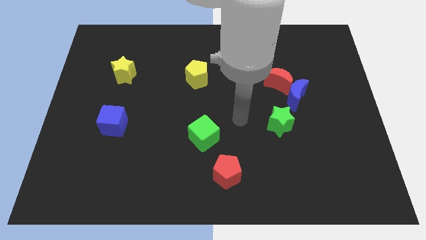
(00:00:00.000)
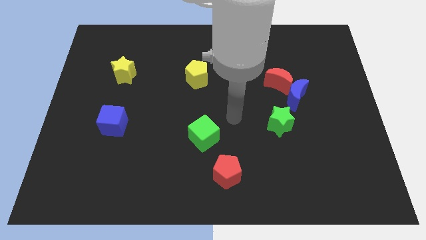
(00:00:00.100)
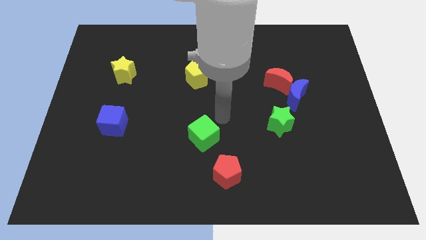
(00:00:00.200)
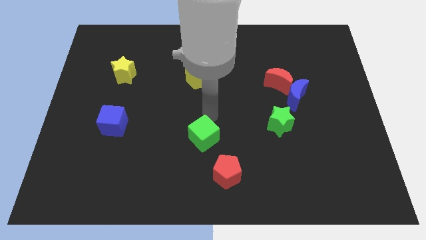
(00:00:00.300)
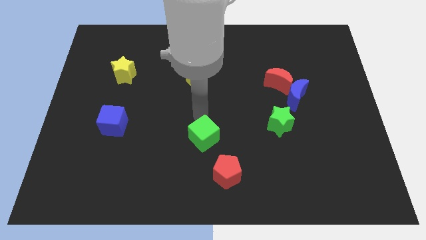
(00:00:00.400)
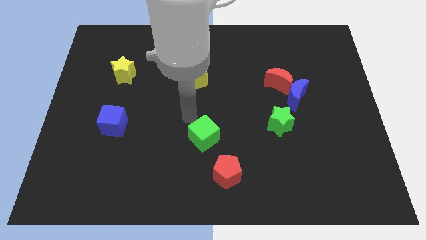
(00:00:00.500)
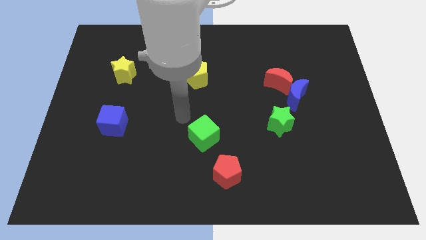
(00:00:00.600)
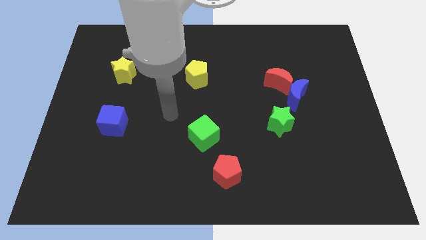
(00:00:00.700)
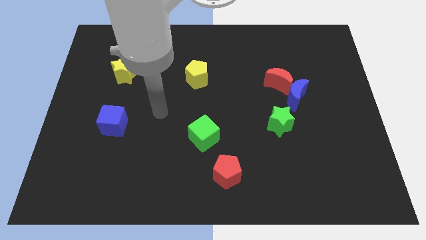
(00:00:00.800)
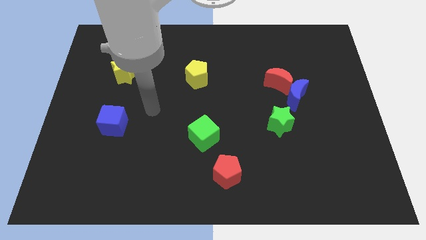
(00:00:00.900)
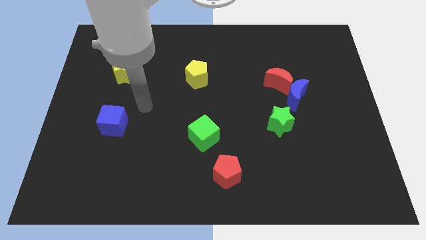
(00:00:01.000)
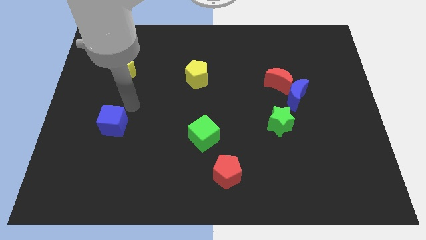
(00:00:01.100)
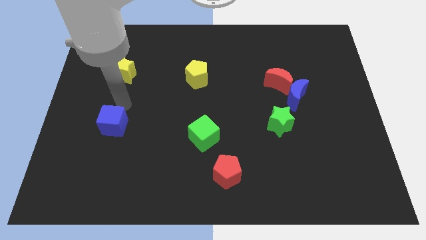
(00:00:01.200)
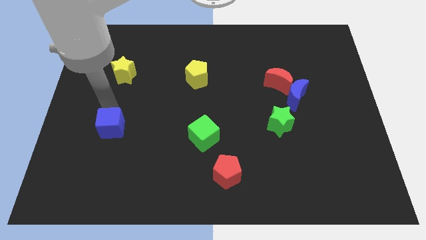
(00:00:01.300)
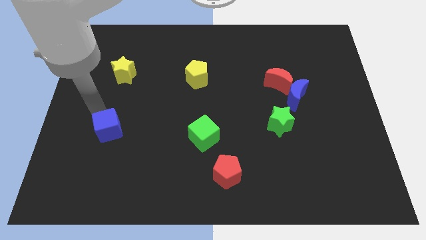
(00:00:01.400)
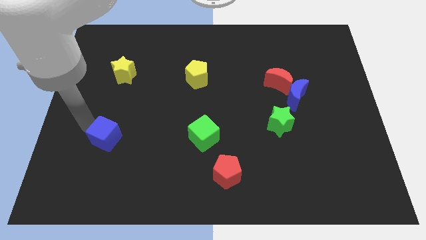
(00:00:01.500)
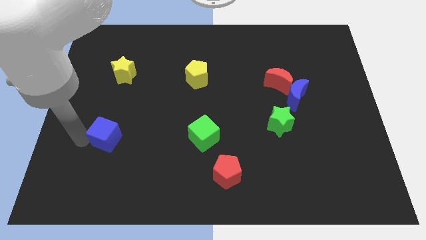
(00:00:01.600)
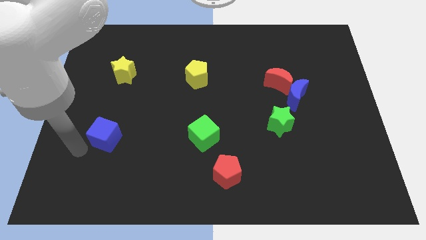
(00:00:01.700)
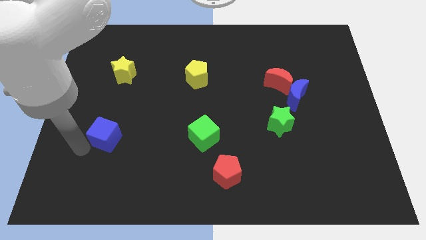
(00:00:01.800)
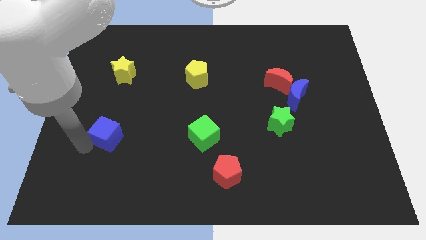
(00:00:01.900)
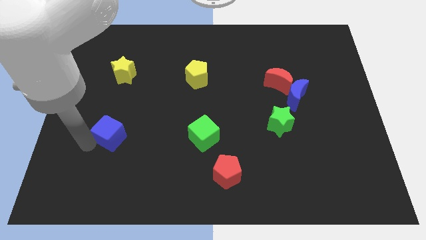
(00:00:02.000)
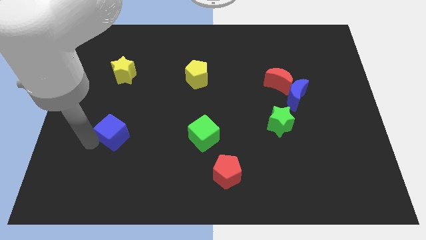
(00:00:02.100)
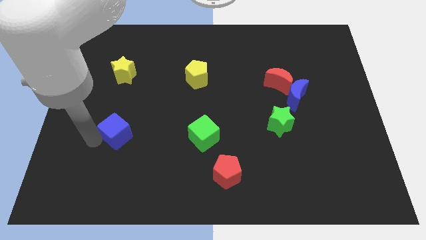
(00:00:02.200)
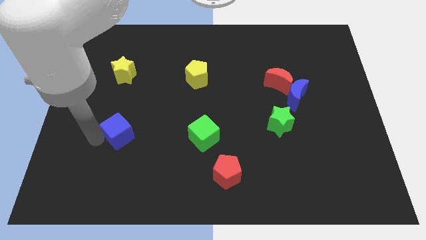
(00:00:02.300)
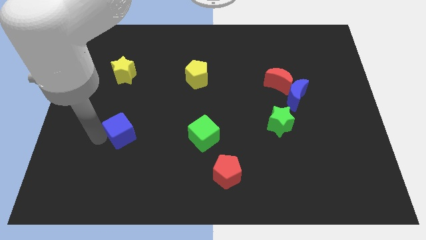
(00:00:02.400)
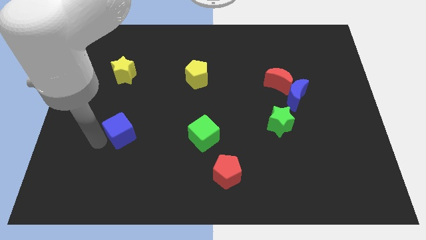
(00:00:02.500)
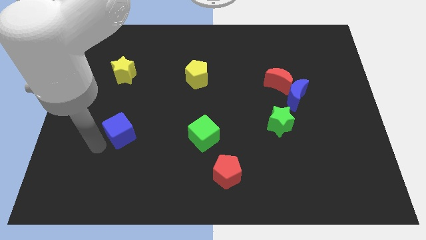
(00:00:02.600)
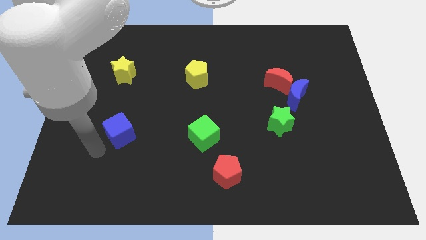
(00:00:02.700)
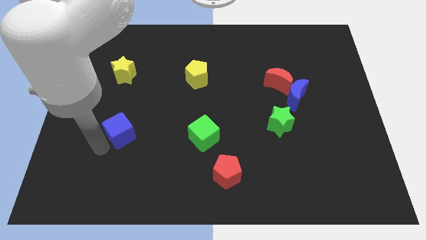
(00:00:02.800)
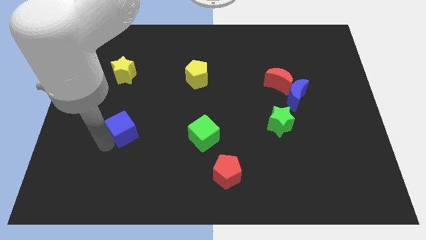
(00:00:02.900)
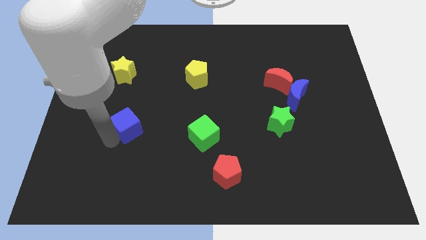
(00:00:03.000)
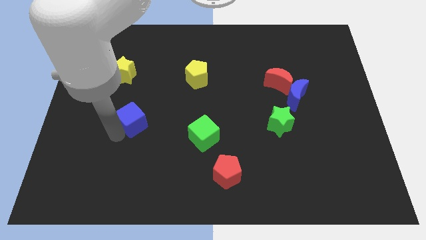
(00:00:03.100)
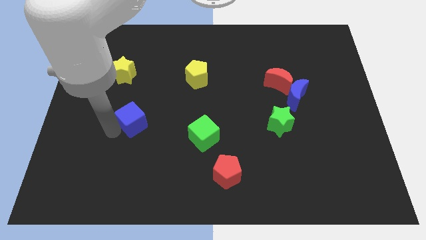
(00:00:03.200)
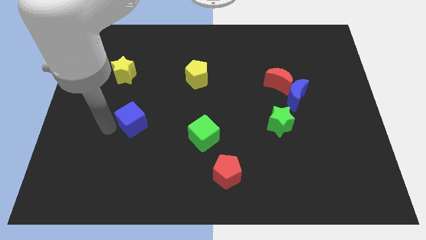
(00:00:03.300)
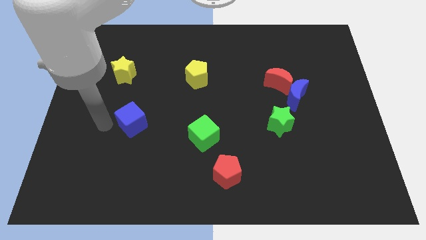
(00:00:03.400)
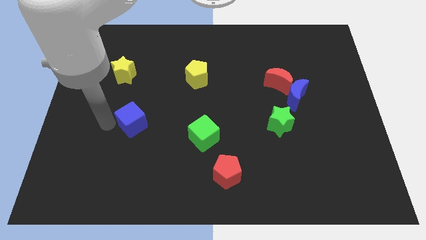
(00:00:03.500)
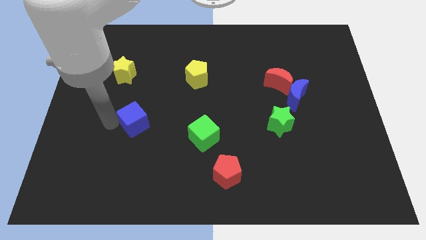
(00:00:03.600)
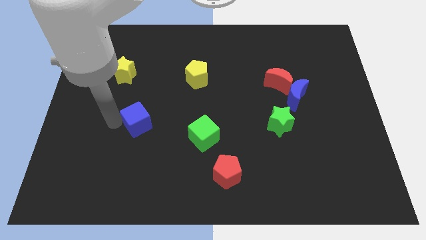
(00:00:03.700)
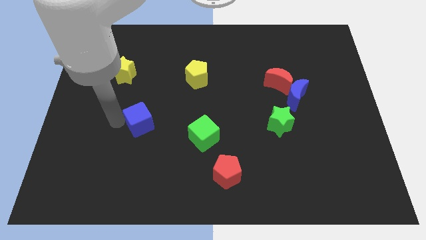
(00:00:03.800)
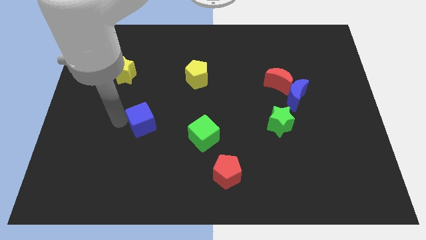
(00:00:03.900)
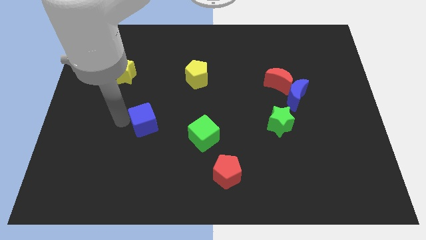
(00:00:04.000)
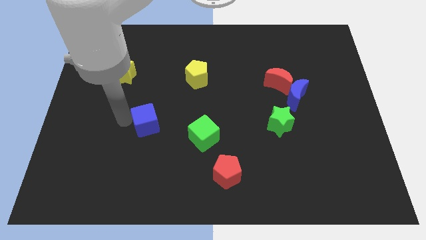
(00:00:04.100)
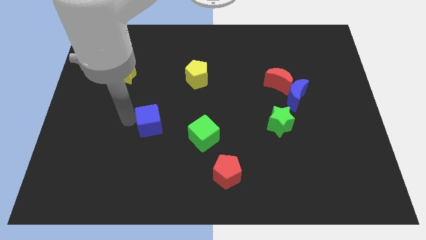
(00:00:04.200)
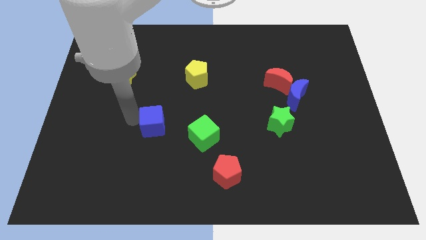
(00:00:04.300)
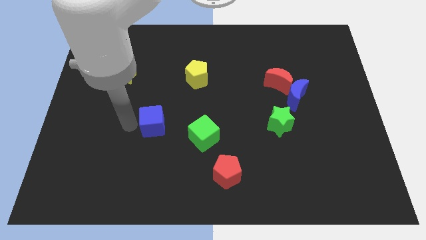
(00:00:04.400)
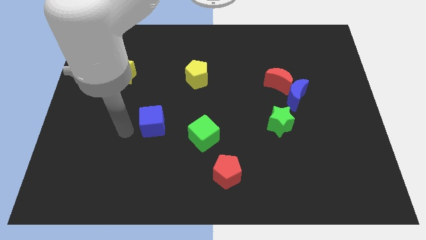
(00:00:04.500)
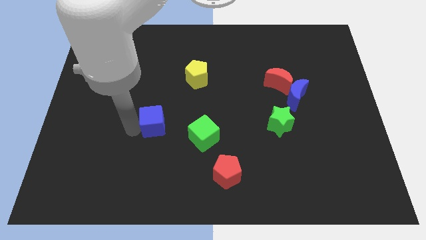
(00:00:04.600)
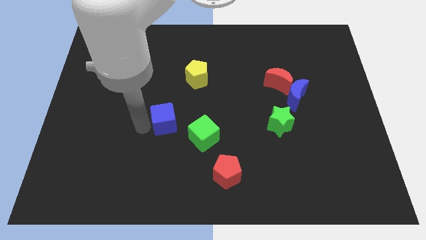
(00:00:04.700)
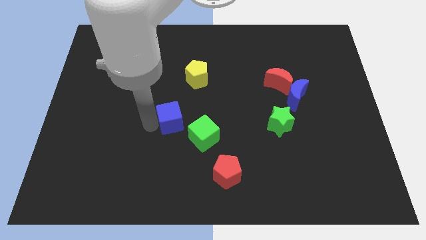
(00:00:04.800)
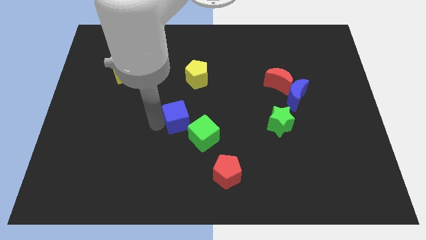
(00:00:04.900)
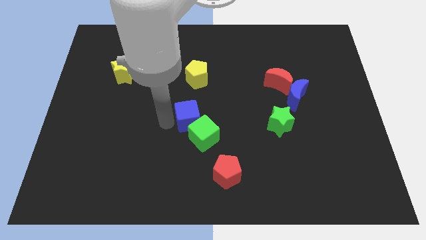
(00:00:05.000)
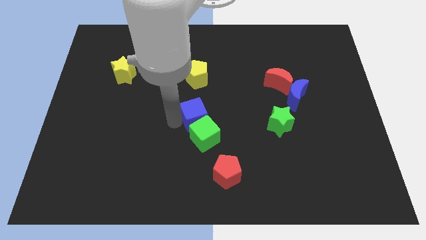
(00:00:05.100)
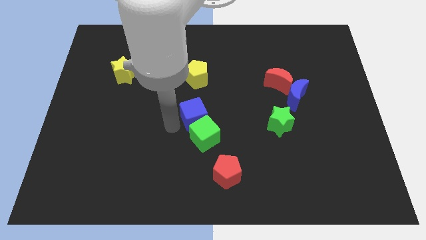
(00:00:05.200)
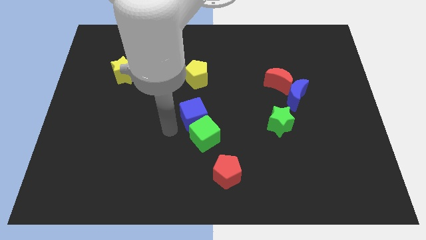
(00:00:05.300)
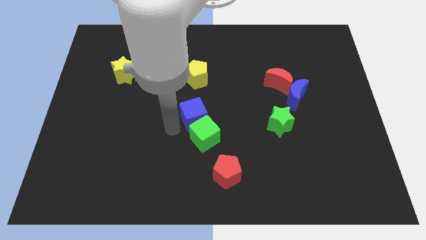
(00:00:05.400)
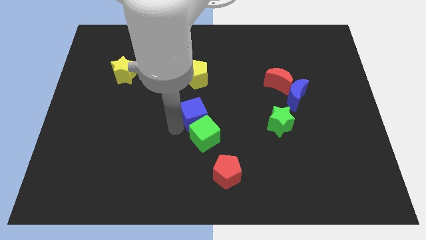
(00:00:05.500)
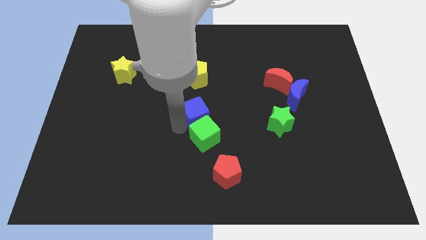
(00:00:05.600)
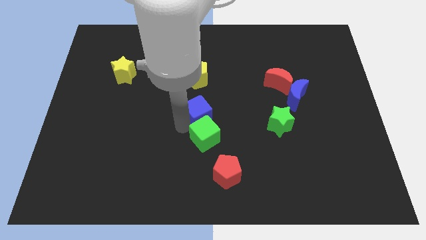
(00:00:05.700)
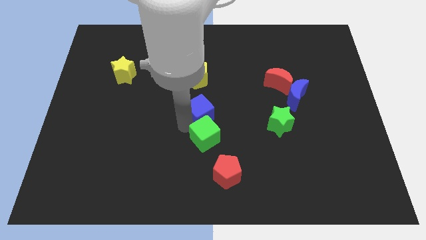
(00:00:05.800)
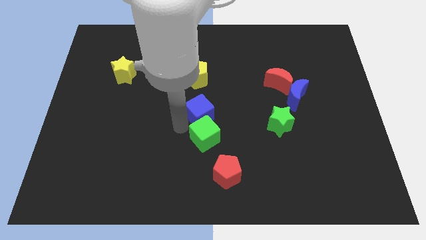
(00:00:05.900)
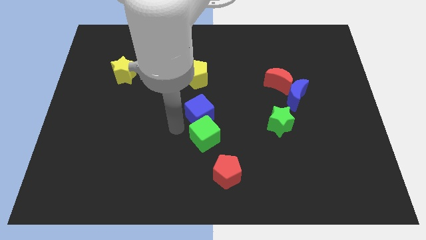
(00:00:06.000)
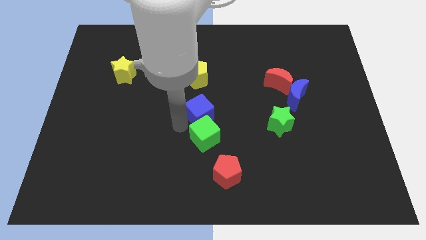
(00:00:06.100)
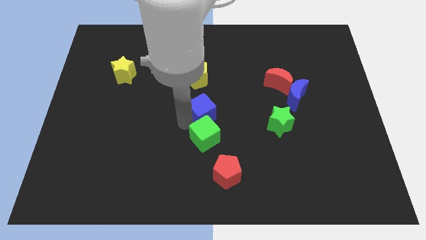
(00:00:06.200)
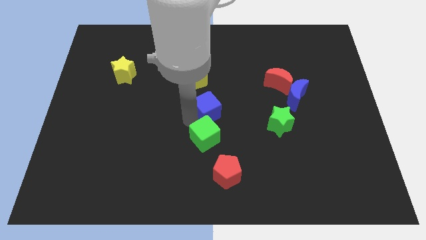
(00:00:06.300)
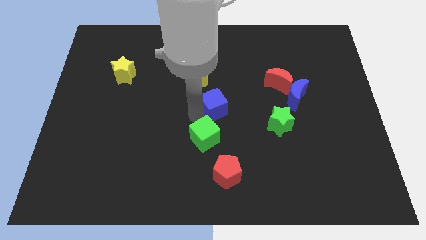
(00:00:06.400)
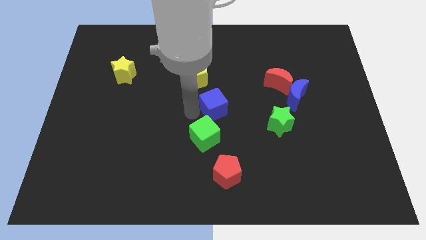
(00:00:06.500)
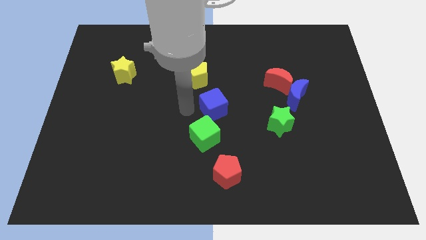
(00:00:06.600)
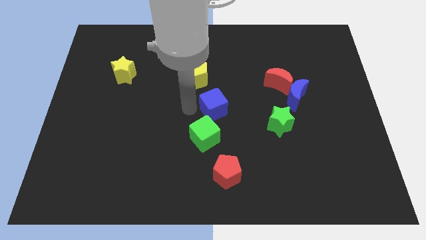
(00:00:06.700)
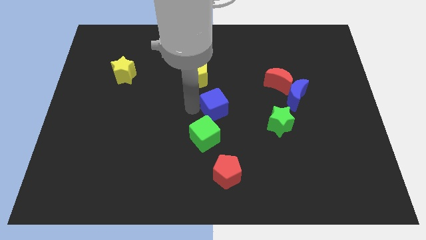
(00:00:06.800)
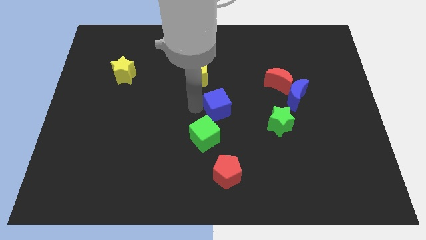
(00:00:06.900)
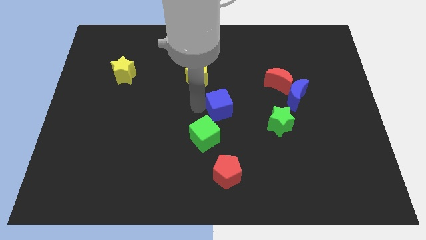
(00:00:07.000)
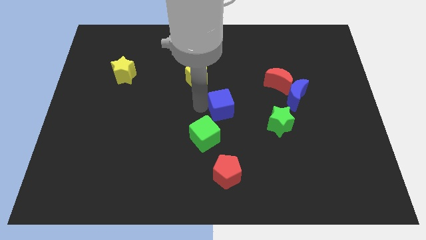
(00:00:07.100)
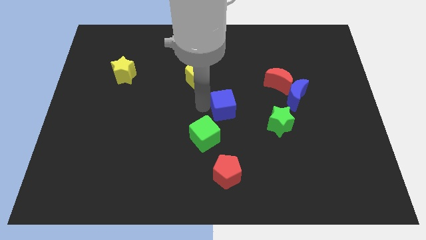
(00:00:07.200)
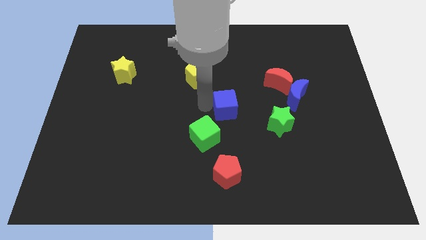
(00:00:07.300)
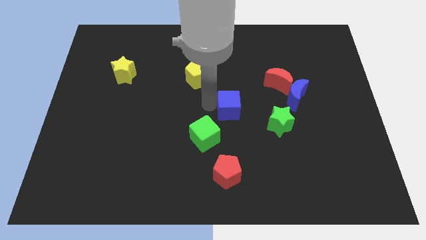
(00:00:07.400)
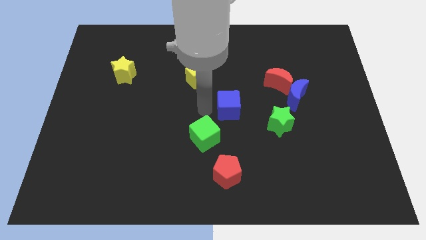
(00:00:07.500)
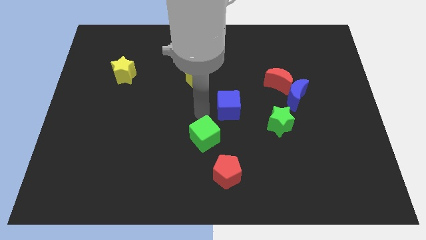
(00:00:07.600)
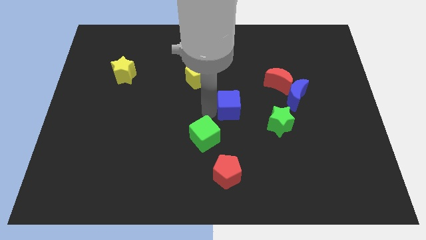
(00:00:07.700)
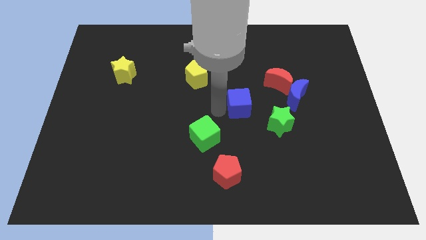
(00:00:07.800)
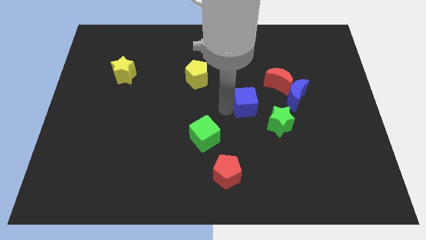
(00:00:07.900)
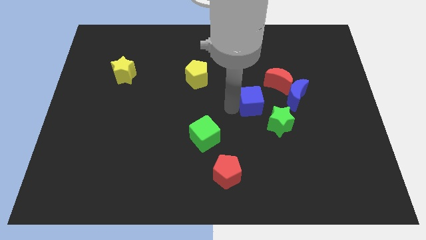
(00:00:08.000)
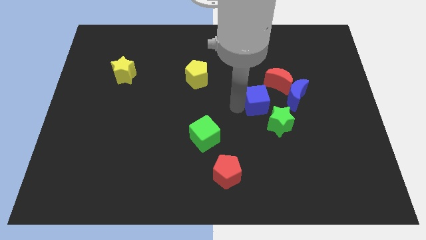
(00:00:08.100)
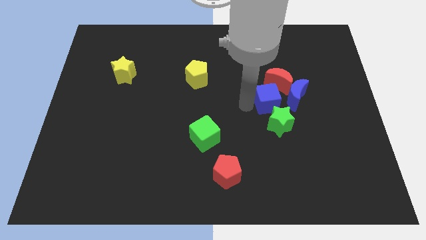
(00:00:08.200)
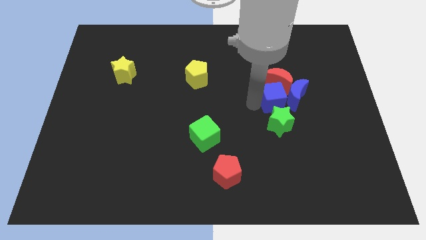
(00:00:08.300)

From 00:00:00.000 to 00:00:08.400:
put the blue cube next to the blue moon
